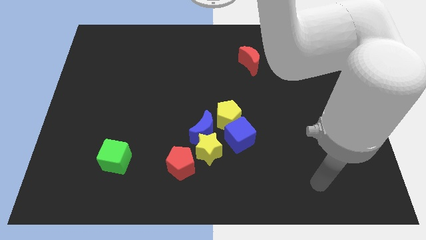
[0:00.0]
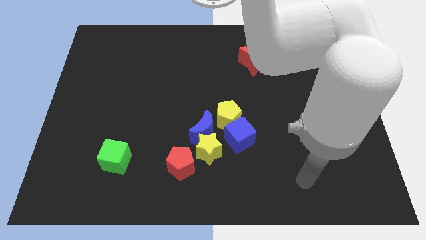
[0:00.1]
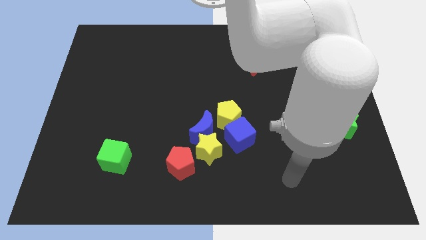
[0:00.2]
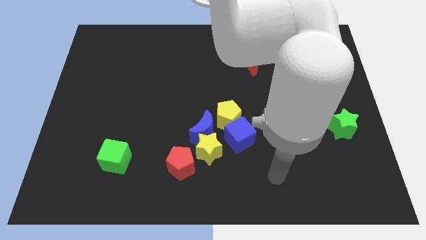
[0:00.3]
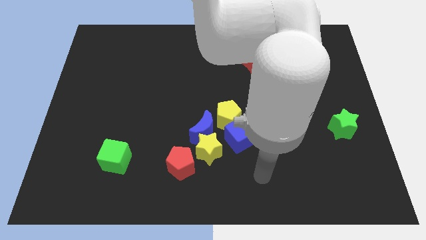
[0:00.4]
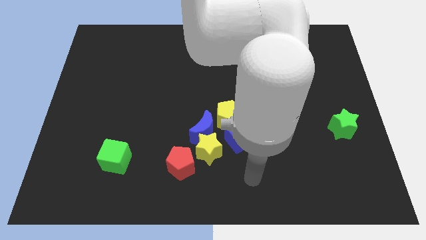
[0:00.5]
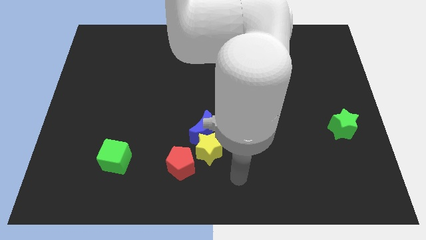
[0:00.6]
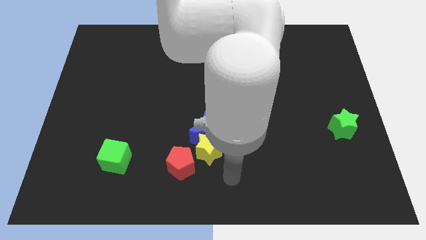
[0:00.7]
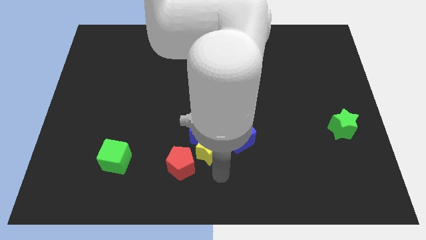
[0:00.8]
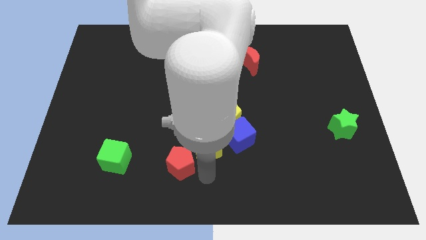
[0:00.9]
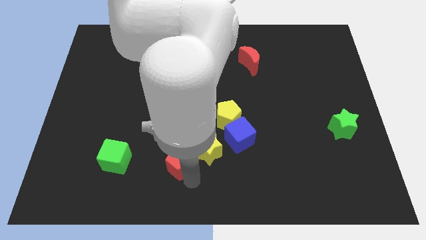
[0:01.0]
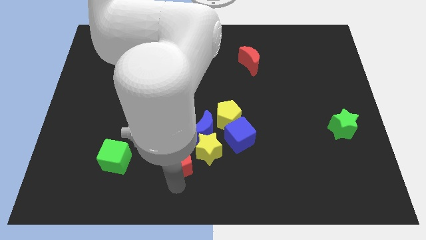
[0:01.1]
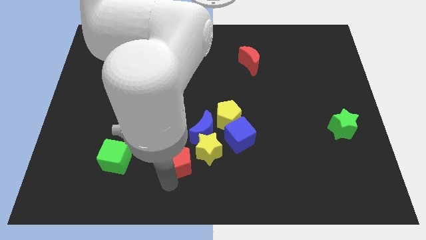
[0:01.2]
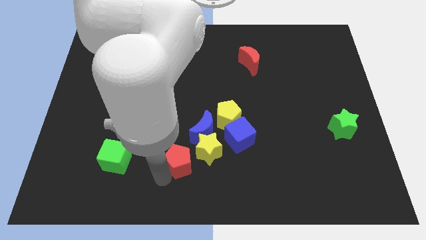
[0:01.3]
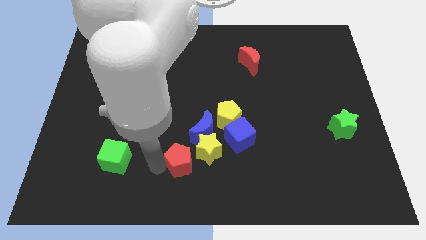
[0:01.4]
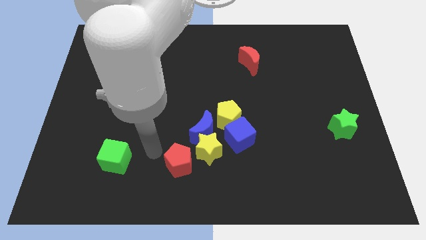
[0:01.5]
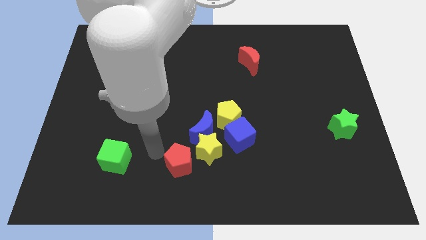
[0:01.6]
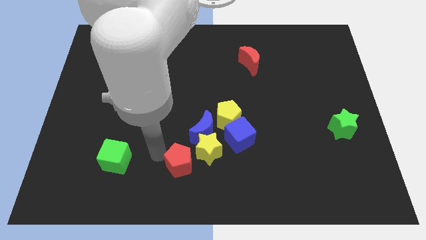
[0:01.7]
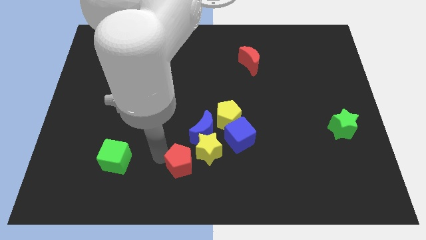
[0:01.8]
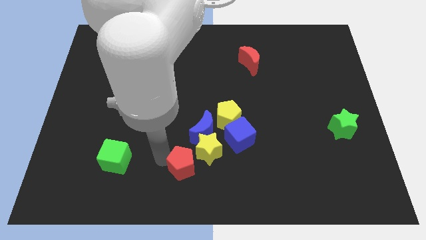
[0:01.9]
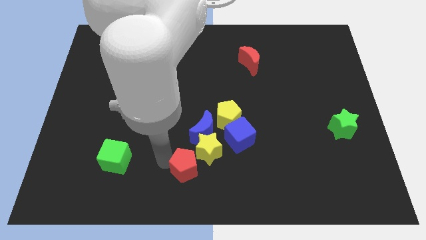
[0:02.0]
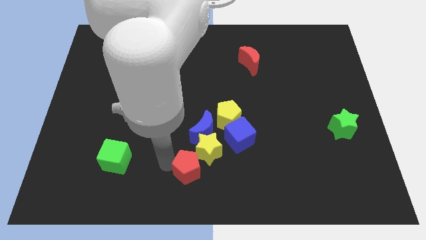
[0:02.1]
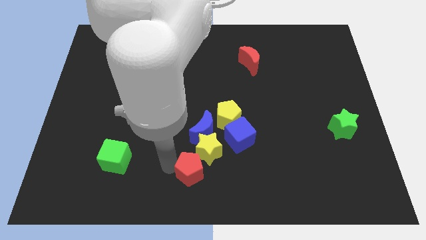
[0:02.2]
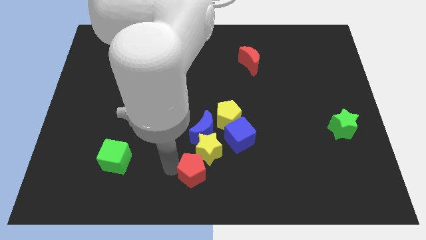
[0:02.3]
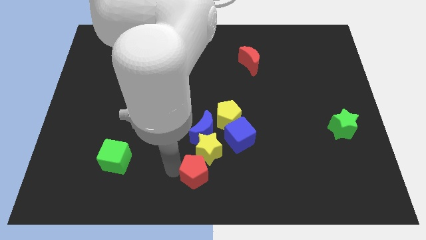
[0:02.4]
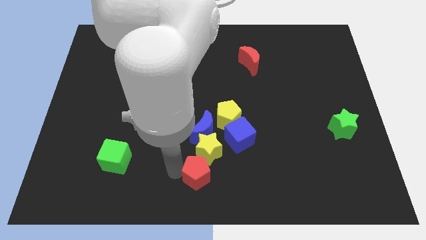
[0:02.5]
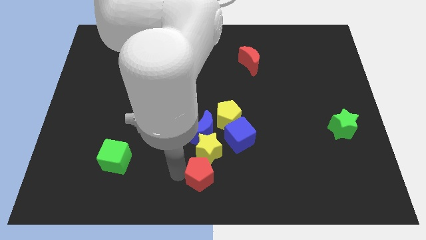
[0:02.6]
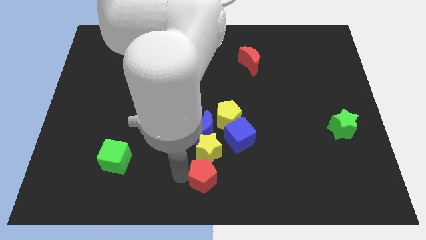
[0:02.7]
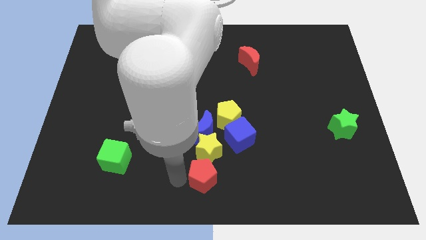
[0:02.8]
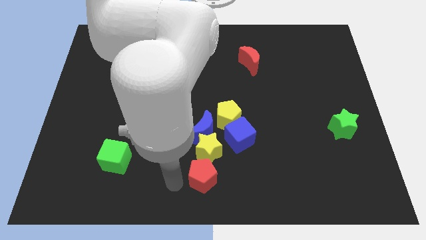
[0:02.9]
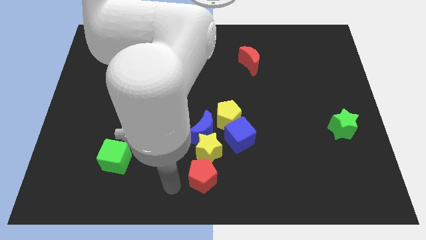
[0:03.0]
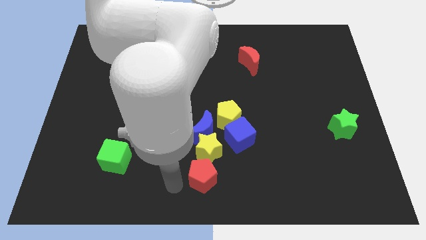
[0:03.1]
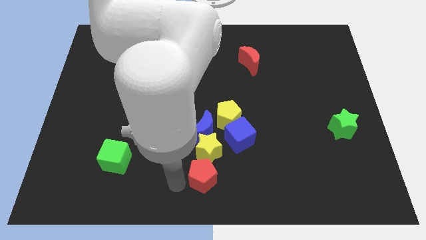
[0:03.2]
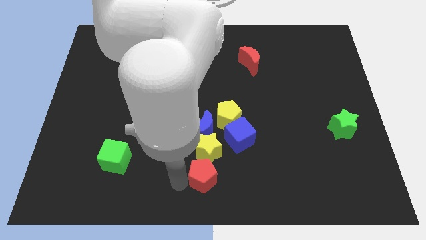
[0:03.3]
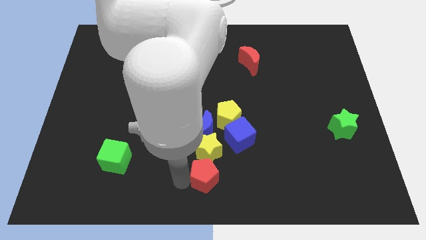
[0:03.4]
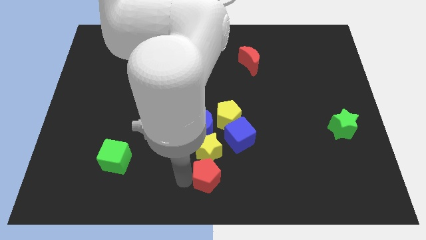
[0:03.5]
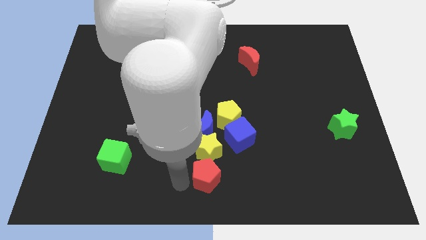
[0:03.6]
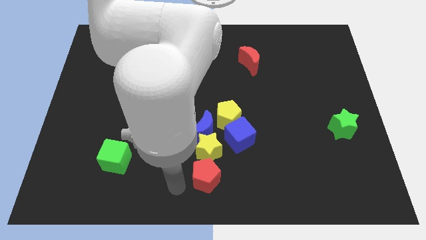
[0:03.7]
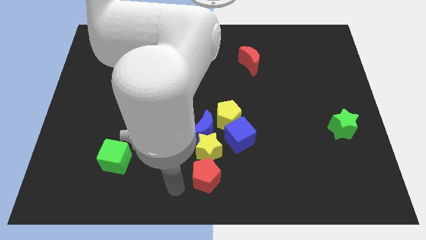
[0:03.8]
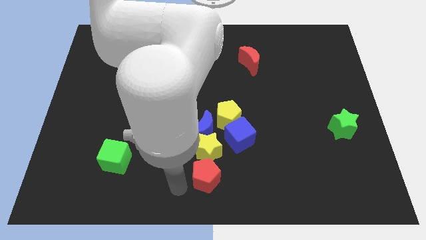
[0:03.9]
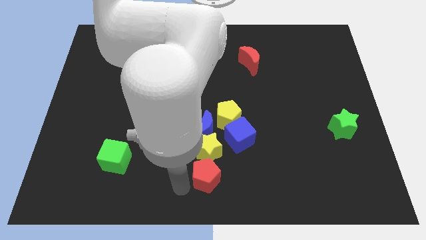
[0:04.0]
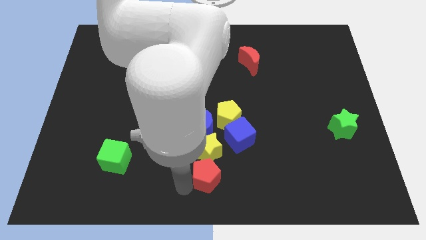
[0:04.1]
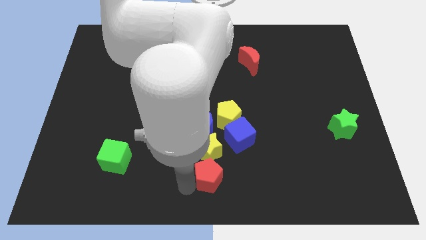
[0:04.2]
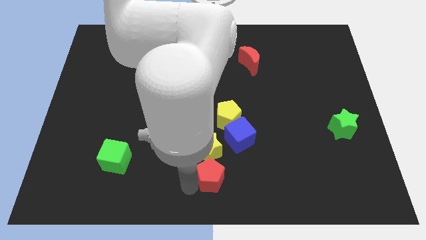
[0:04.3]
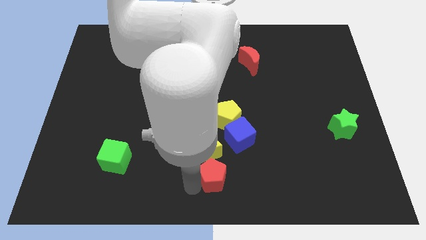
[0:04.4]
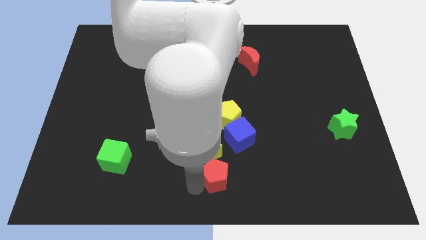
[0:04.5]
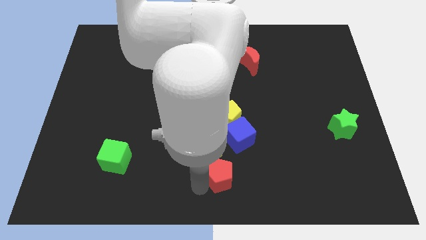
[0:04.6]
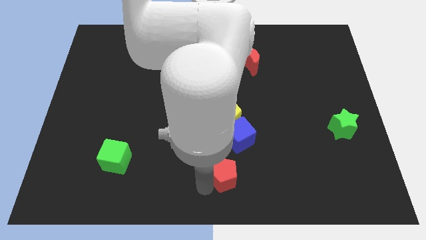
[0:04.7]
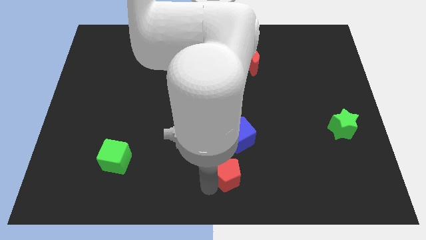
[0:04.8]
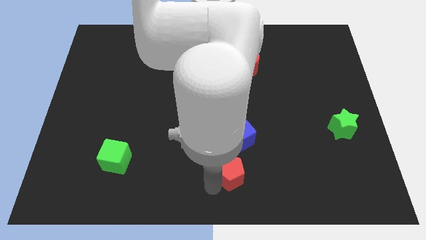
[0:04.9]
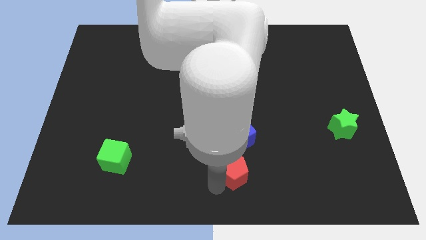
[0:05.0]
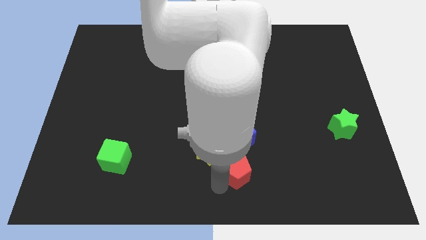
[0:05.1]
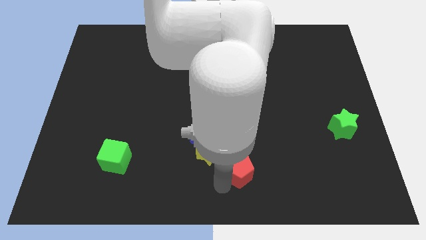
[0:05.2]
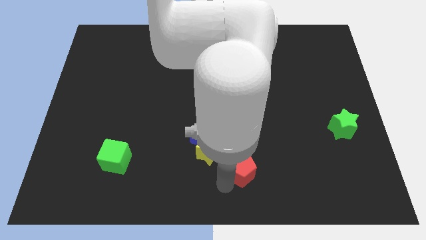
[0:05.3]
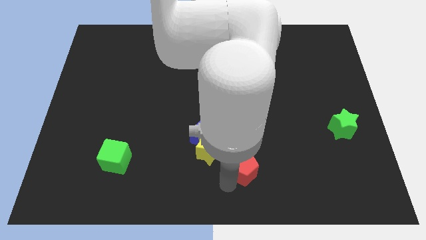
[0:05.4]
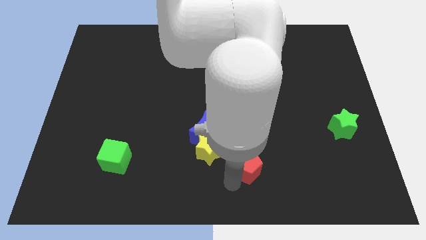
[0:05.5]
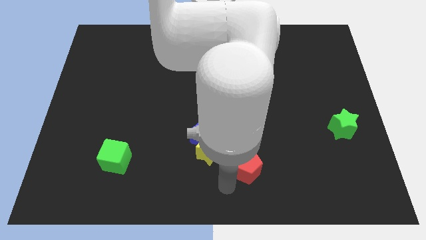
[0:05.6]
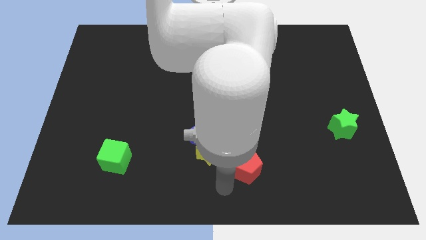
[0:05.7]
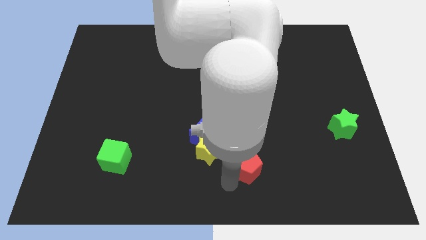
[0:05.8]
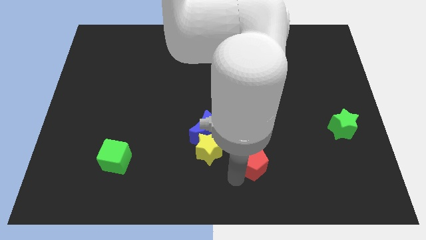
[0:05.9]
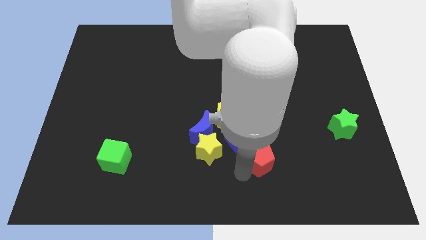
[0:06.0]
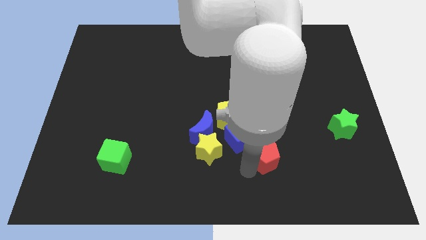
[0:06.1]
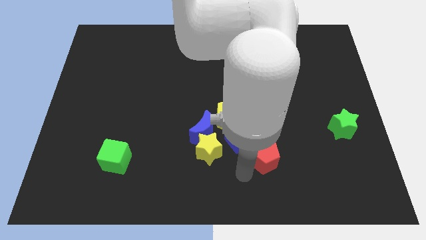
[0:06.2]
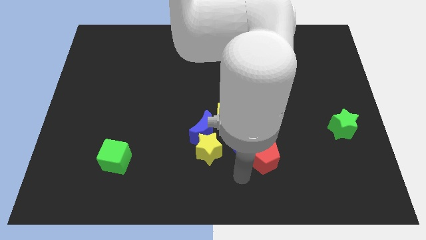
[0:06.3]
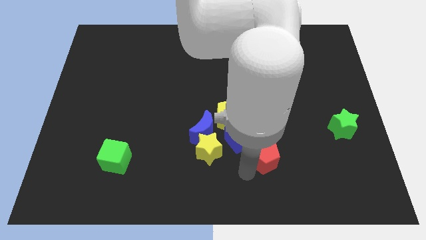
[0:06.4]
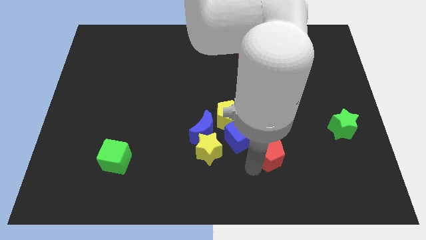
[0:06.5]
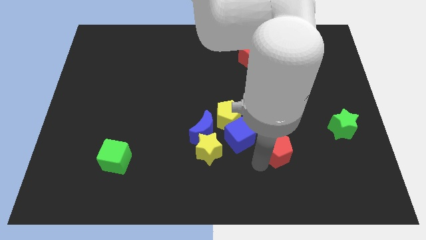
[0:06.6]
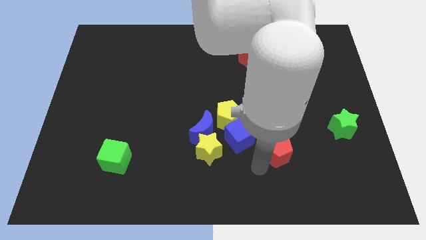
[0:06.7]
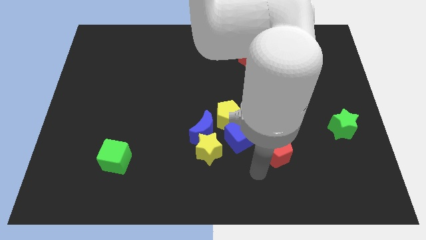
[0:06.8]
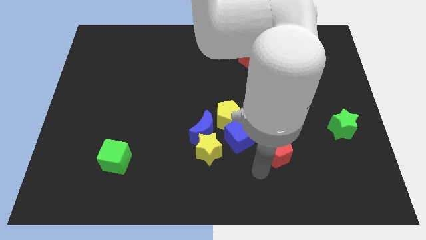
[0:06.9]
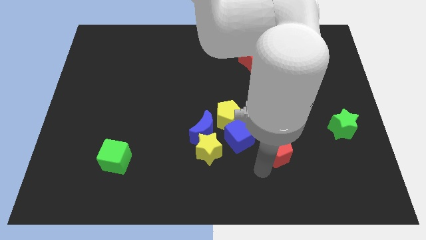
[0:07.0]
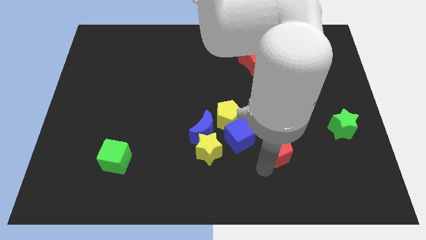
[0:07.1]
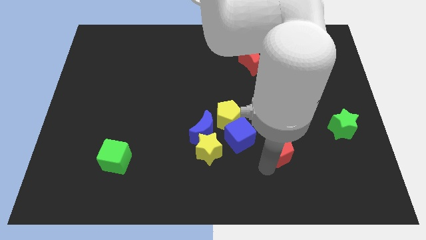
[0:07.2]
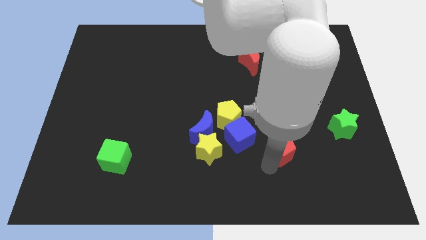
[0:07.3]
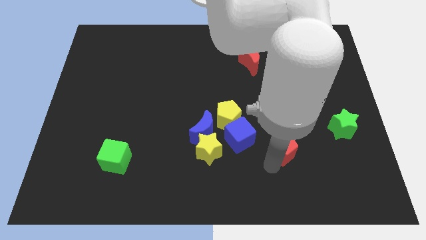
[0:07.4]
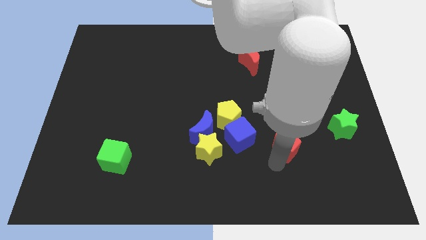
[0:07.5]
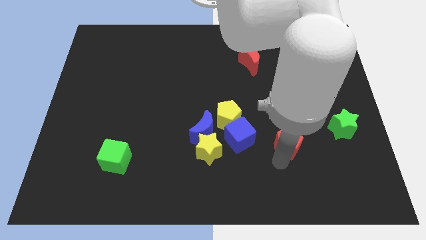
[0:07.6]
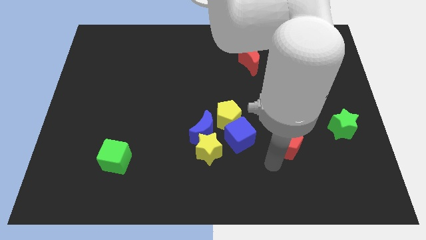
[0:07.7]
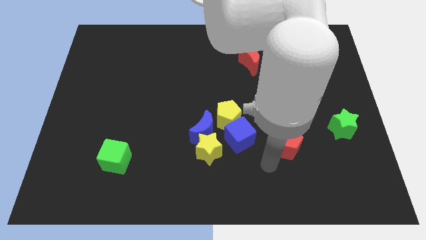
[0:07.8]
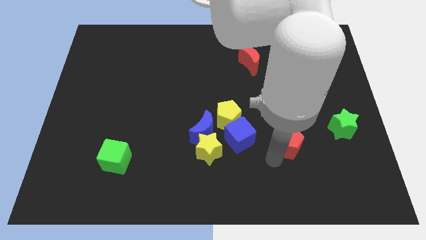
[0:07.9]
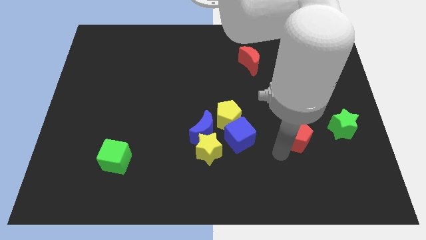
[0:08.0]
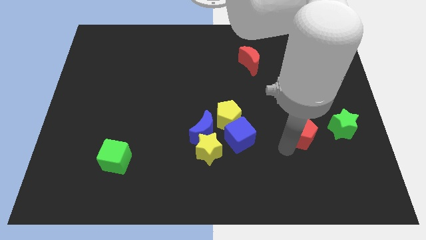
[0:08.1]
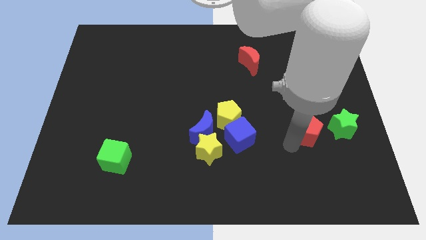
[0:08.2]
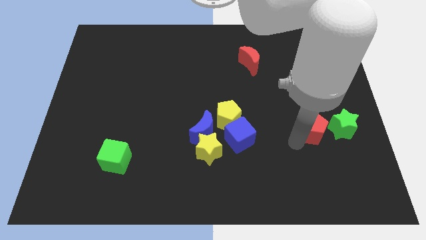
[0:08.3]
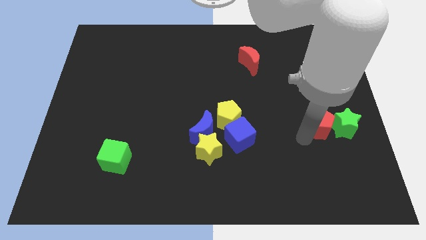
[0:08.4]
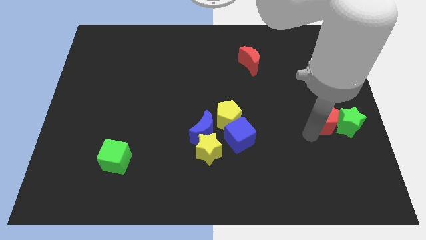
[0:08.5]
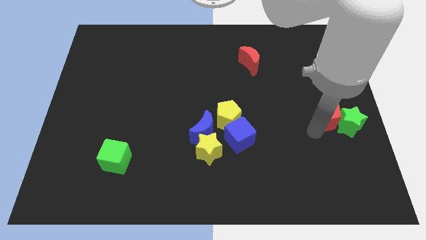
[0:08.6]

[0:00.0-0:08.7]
slide the red pentagon to the right side
